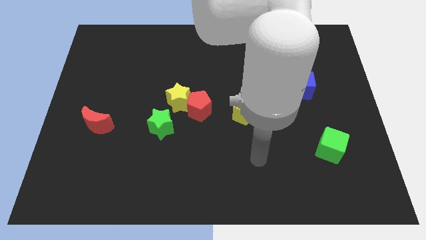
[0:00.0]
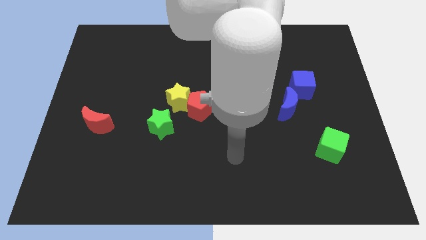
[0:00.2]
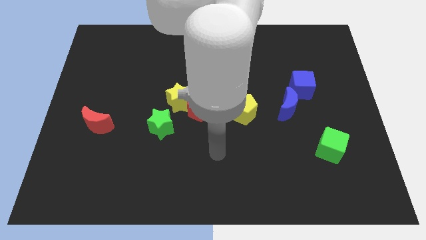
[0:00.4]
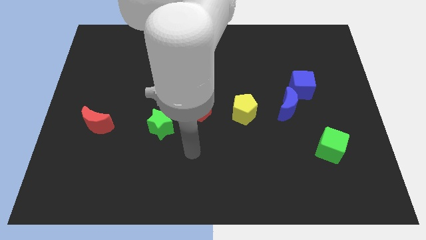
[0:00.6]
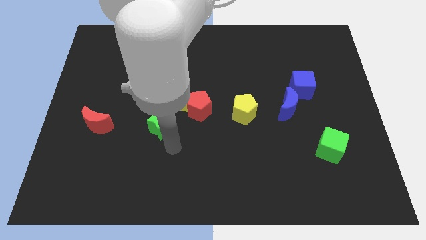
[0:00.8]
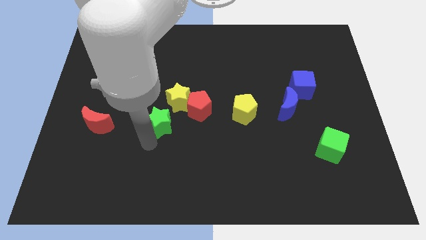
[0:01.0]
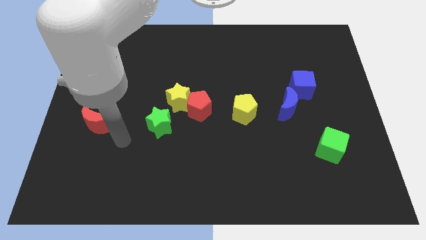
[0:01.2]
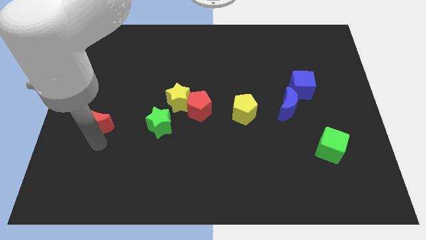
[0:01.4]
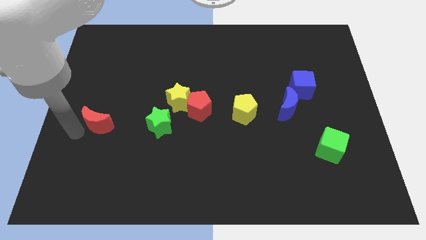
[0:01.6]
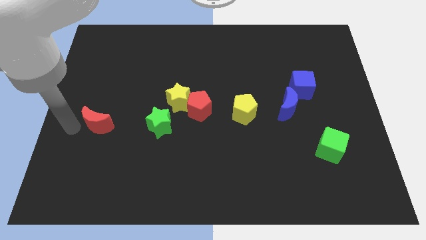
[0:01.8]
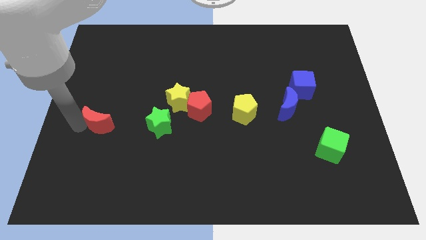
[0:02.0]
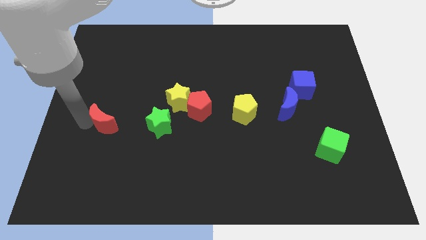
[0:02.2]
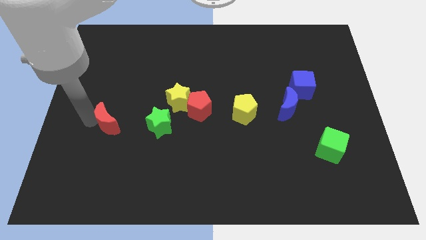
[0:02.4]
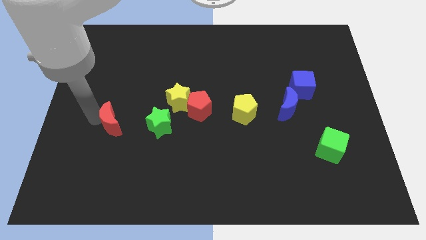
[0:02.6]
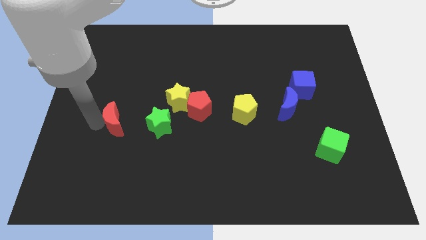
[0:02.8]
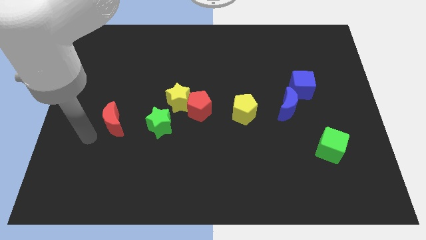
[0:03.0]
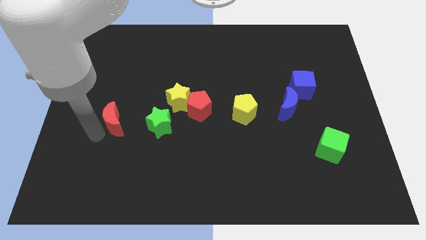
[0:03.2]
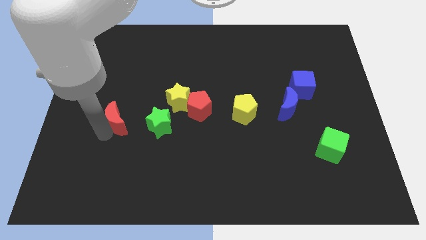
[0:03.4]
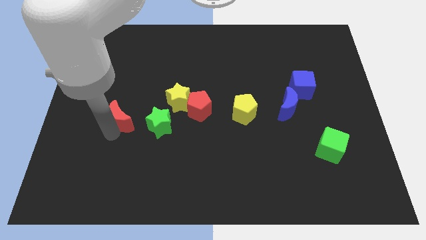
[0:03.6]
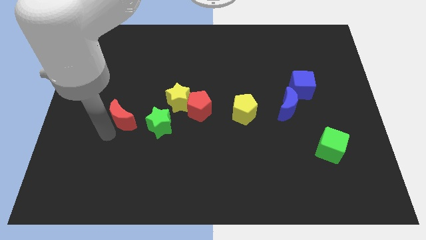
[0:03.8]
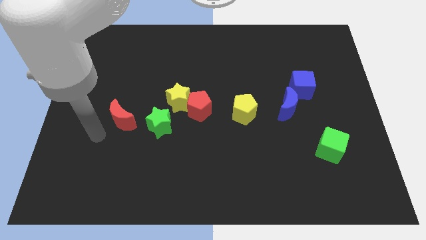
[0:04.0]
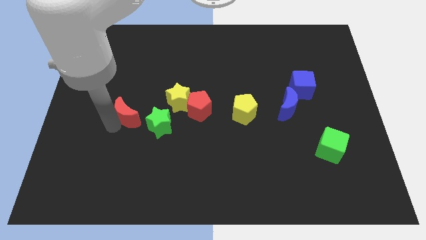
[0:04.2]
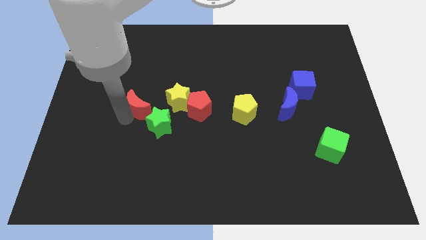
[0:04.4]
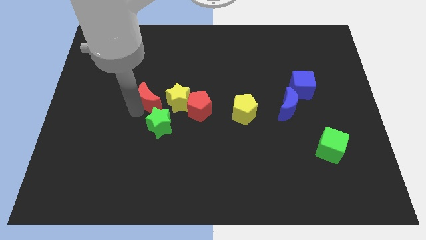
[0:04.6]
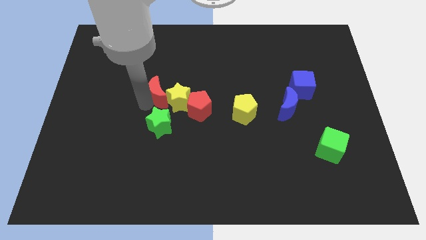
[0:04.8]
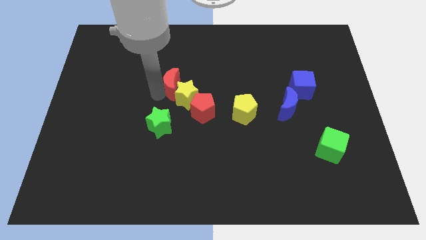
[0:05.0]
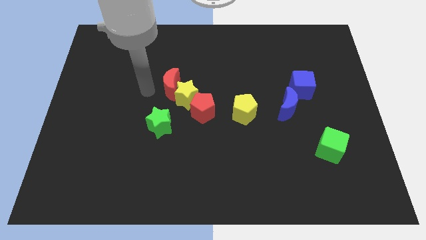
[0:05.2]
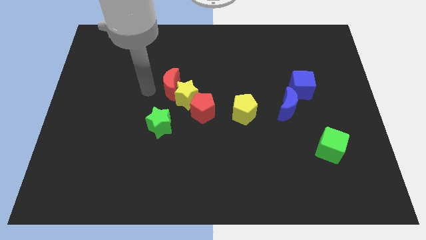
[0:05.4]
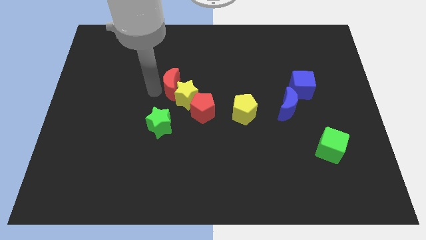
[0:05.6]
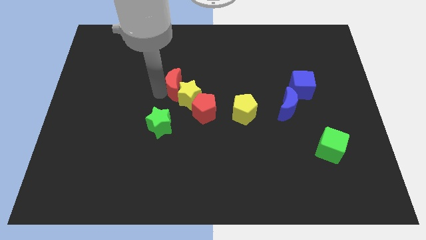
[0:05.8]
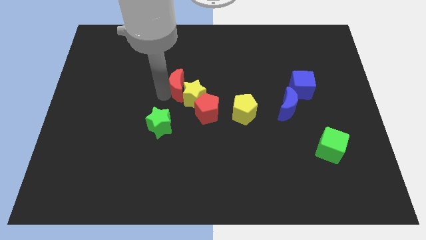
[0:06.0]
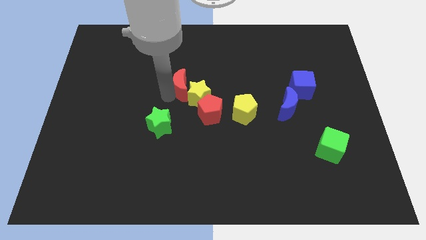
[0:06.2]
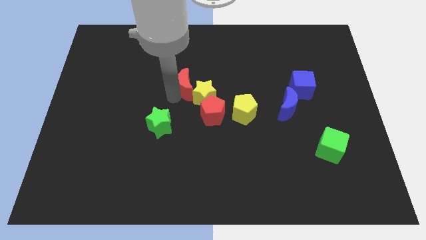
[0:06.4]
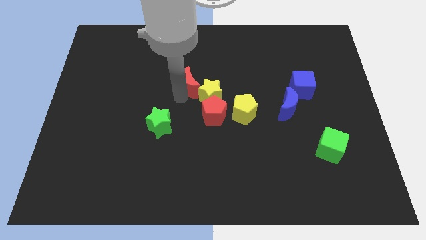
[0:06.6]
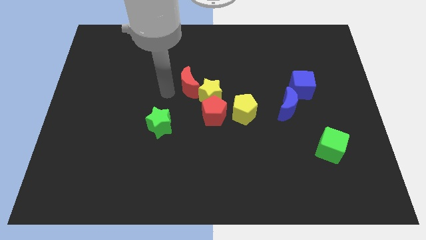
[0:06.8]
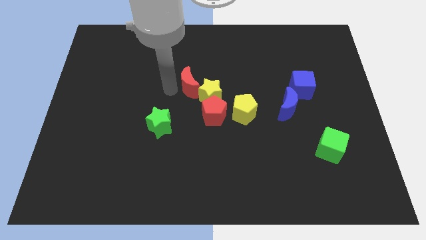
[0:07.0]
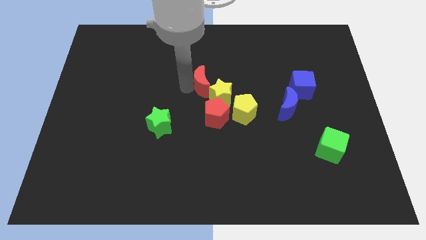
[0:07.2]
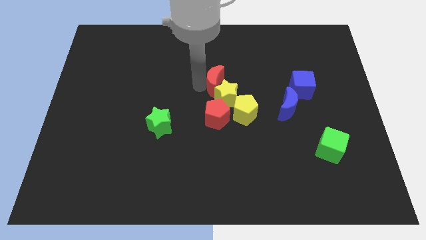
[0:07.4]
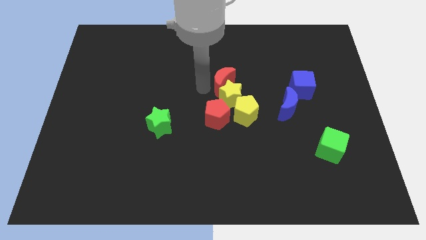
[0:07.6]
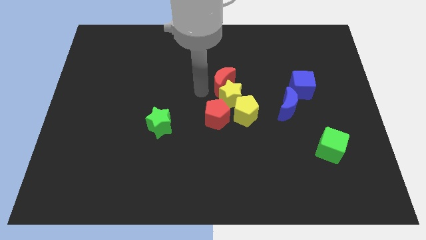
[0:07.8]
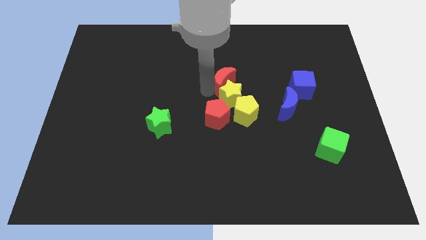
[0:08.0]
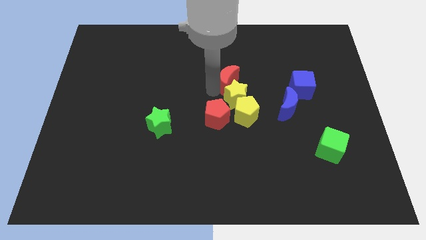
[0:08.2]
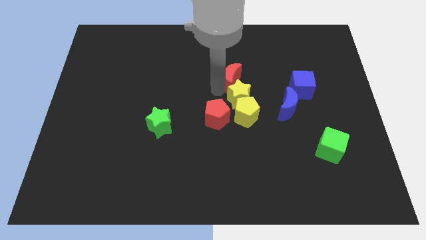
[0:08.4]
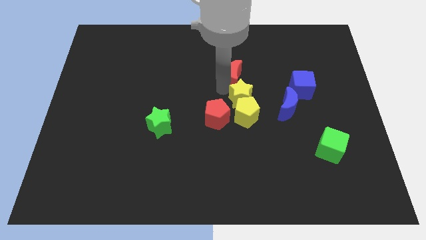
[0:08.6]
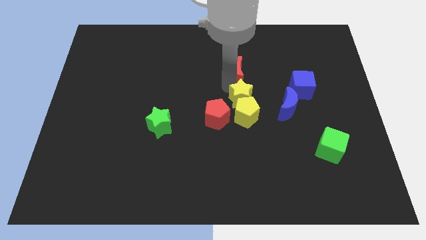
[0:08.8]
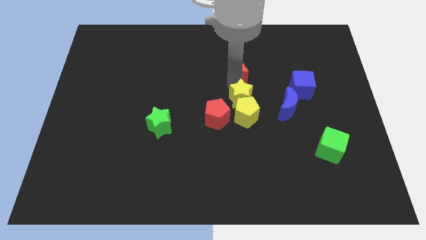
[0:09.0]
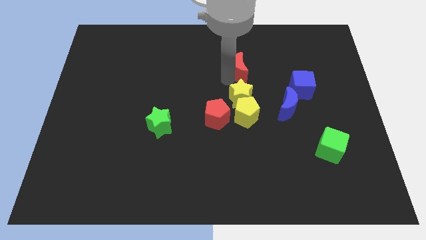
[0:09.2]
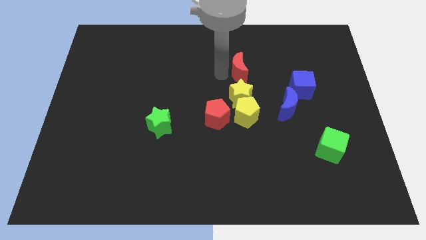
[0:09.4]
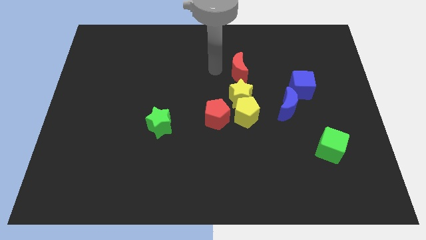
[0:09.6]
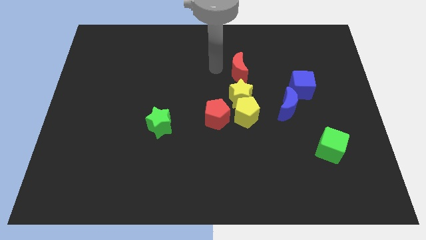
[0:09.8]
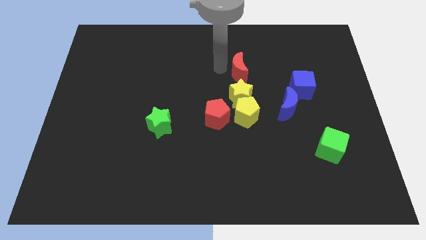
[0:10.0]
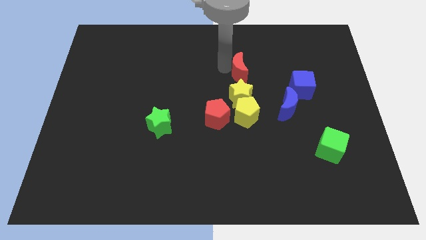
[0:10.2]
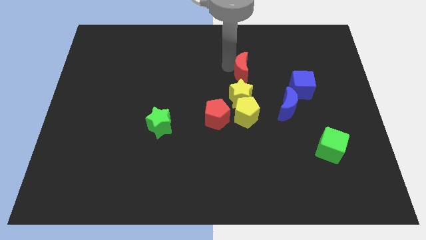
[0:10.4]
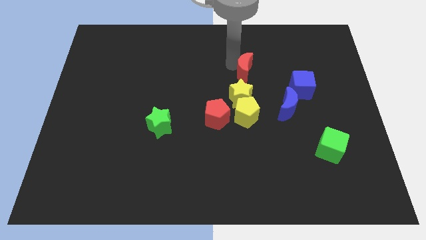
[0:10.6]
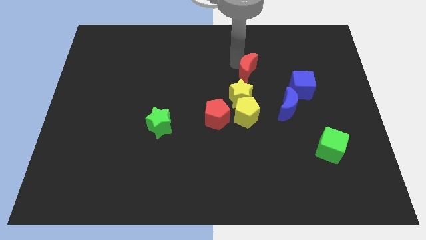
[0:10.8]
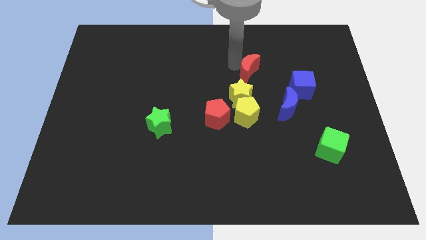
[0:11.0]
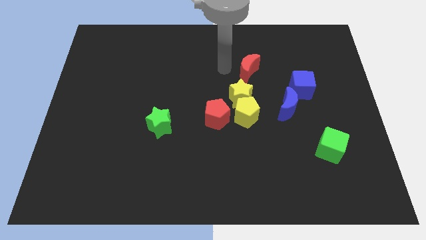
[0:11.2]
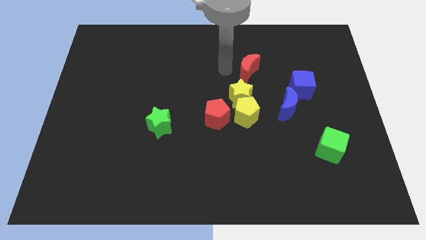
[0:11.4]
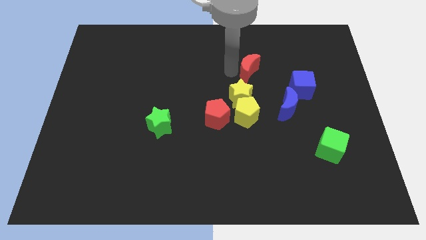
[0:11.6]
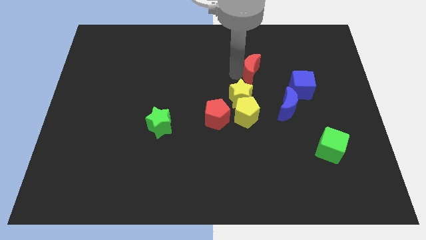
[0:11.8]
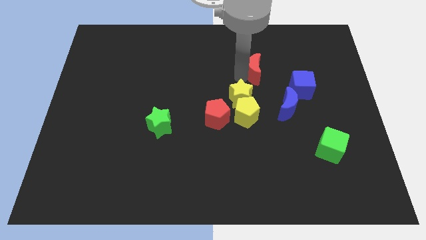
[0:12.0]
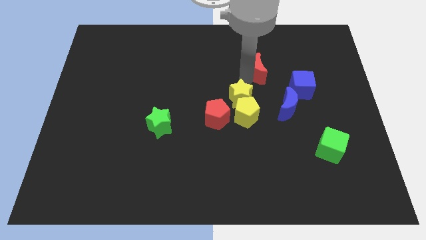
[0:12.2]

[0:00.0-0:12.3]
move the red moon to the top left of the blue cube

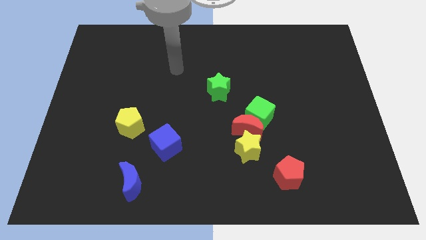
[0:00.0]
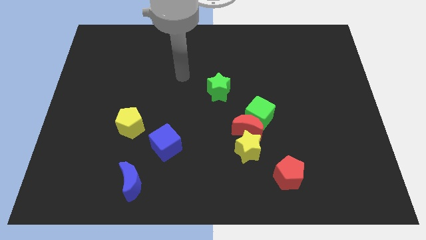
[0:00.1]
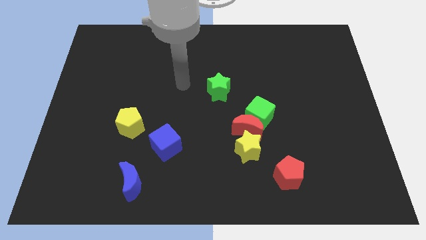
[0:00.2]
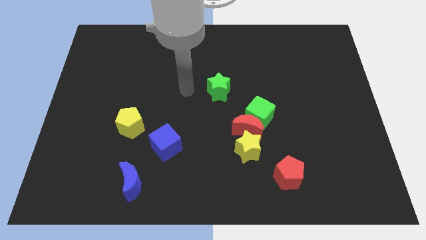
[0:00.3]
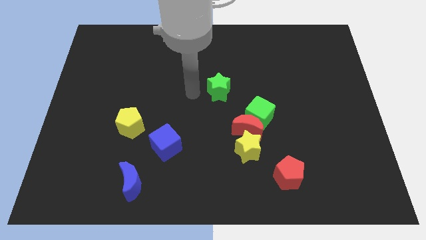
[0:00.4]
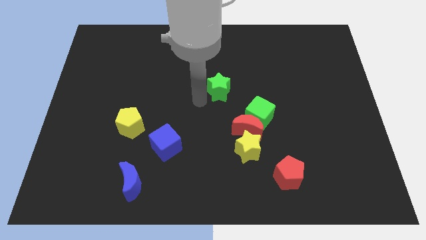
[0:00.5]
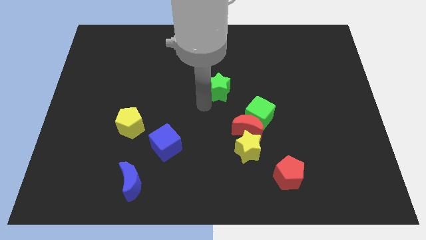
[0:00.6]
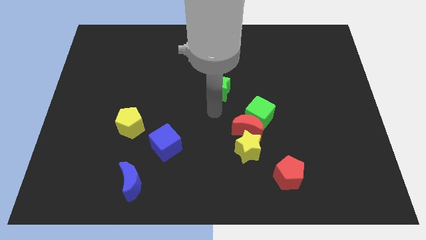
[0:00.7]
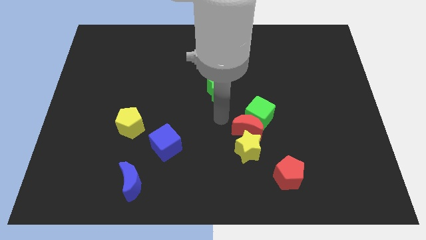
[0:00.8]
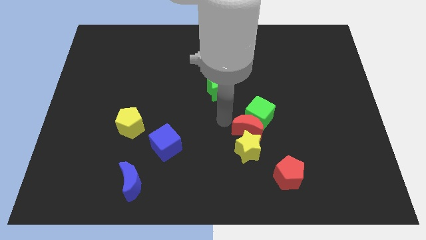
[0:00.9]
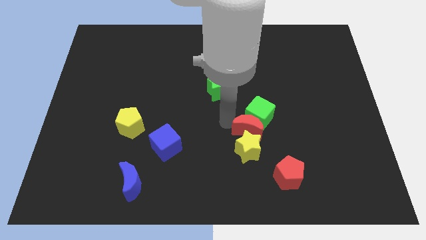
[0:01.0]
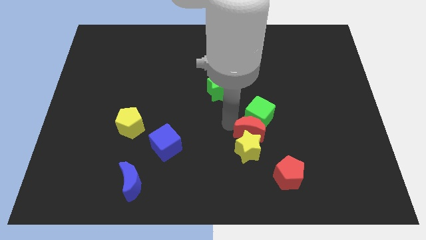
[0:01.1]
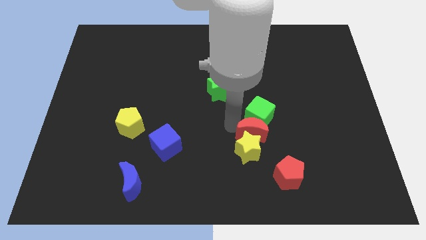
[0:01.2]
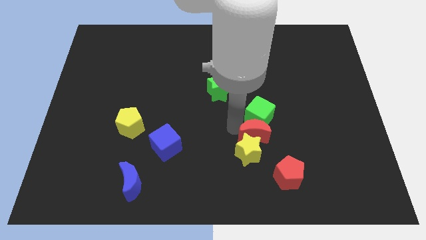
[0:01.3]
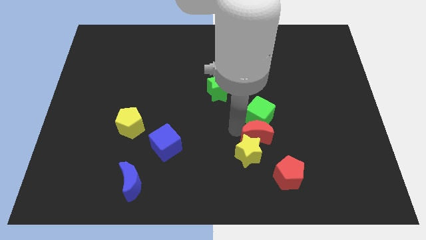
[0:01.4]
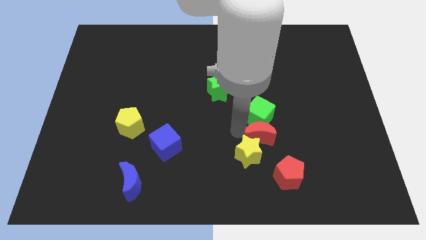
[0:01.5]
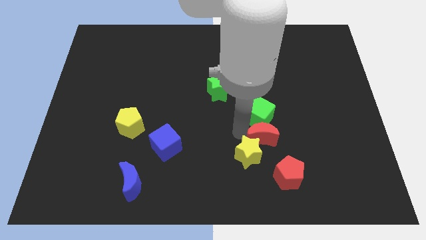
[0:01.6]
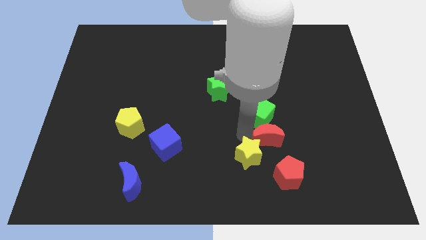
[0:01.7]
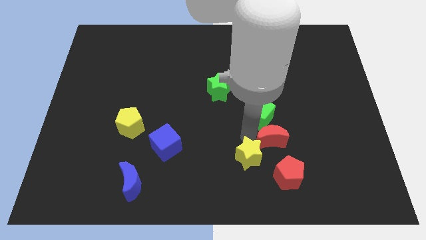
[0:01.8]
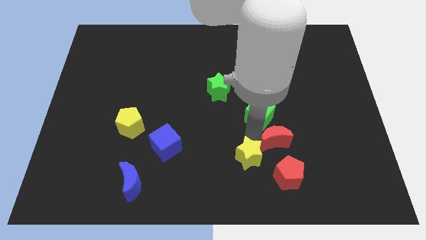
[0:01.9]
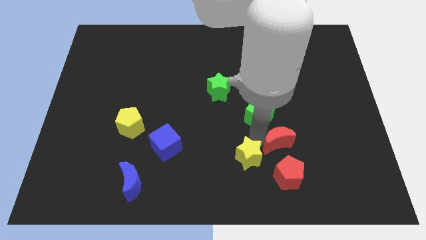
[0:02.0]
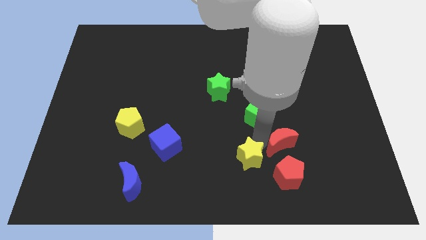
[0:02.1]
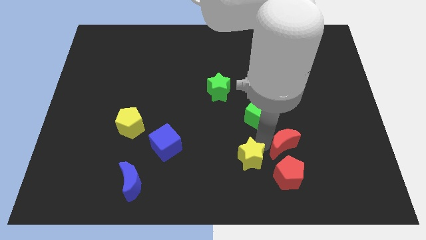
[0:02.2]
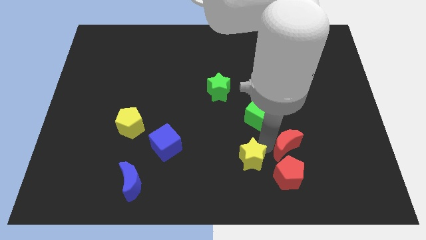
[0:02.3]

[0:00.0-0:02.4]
push the red moon to the top right side of the red pentagon
